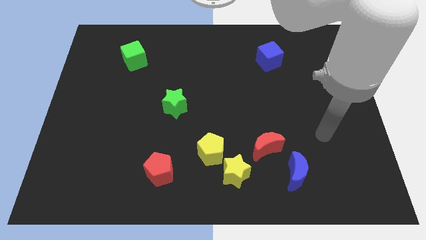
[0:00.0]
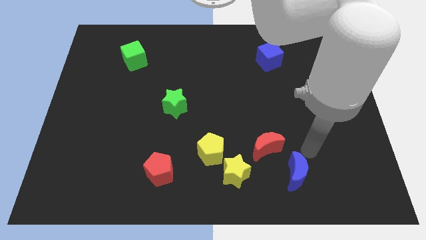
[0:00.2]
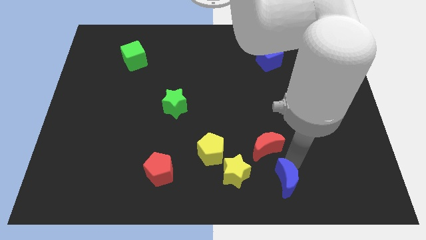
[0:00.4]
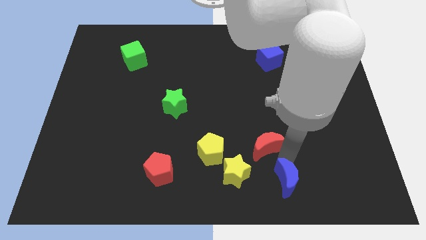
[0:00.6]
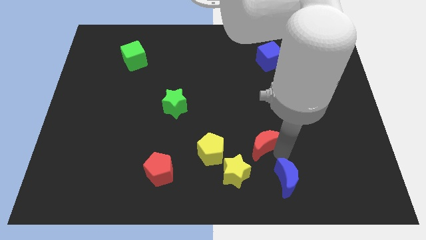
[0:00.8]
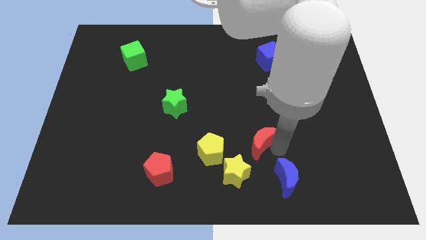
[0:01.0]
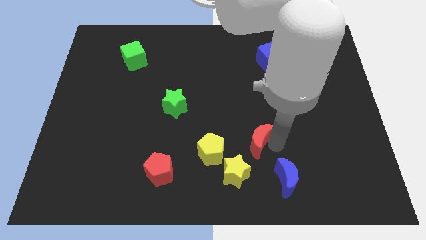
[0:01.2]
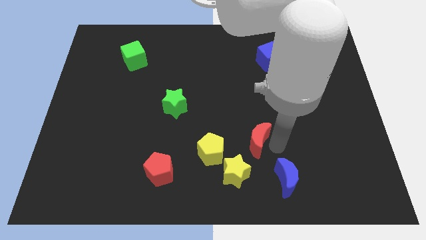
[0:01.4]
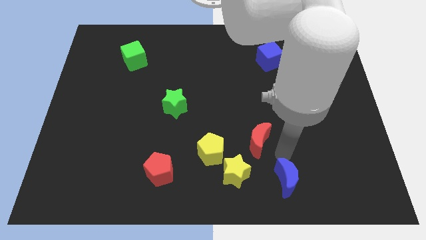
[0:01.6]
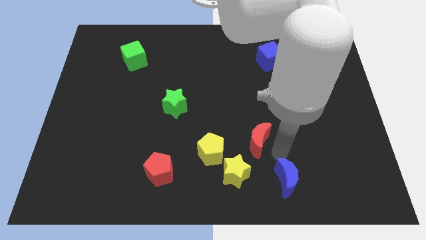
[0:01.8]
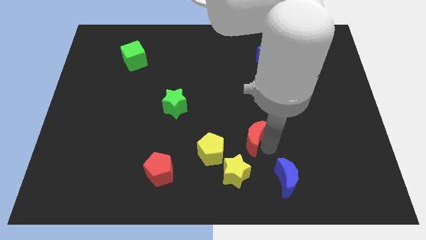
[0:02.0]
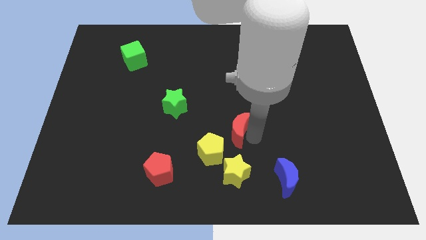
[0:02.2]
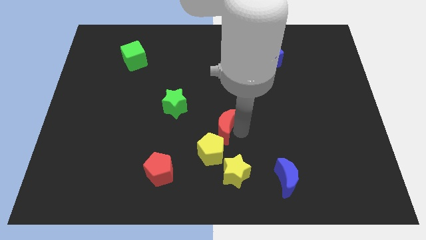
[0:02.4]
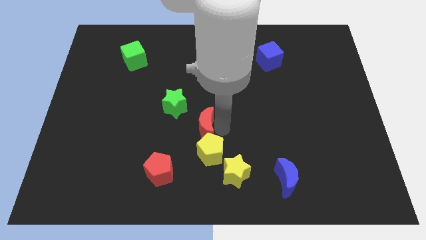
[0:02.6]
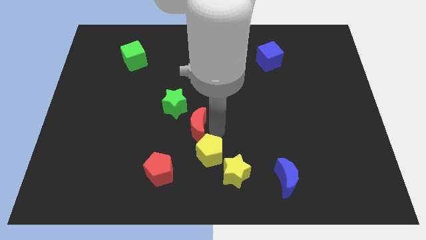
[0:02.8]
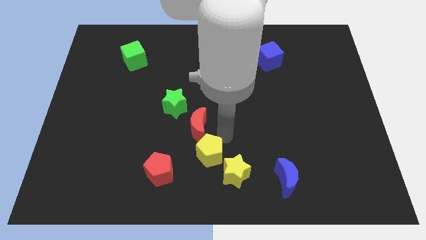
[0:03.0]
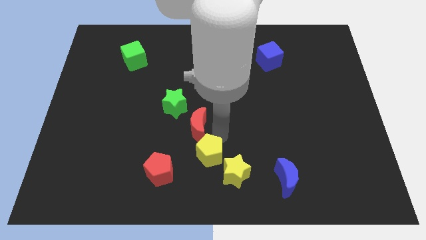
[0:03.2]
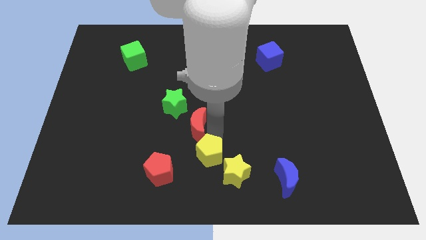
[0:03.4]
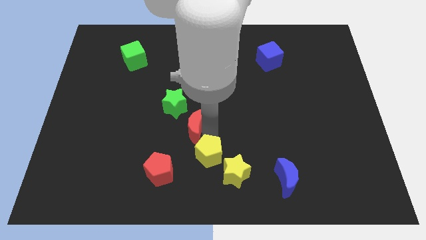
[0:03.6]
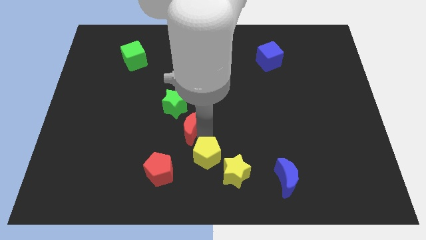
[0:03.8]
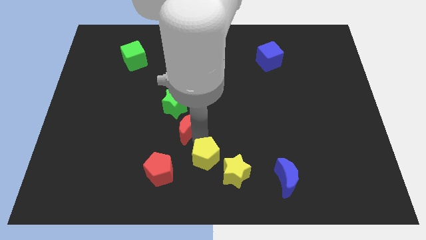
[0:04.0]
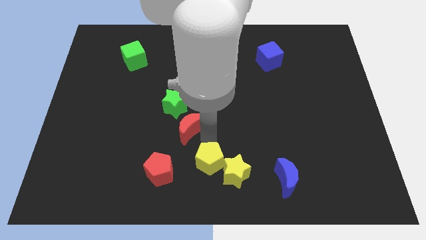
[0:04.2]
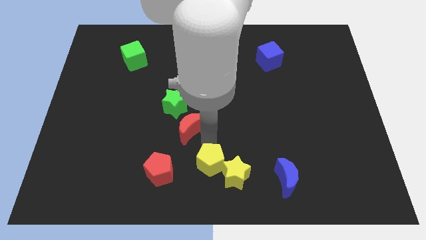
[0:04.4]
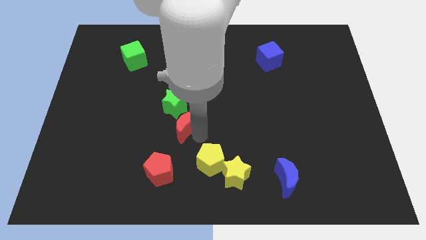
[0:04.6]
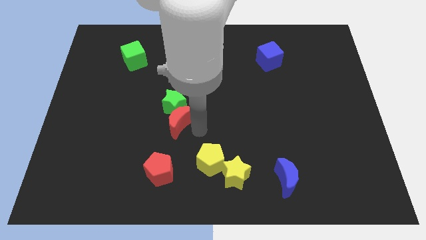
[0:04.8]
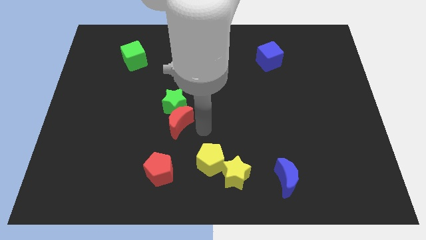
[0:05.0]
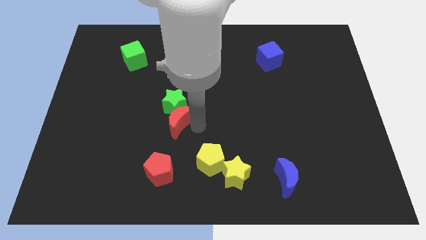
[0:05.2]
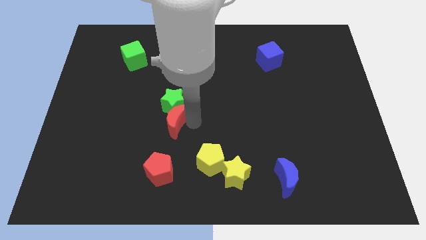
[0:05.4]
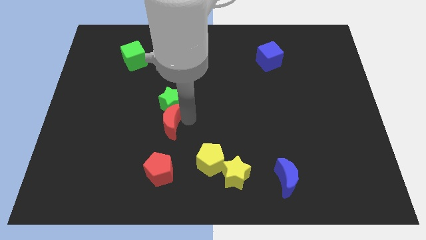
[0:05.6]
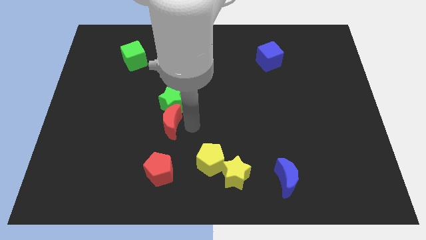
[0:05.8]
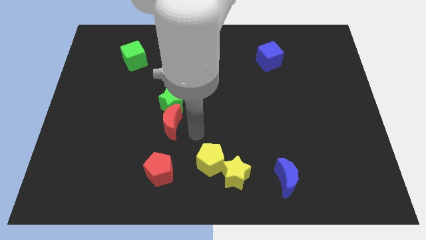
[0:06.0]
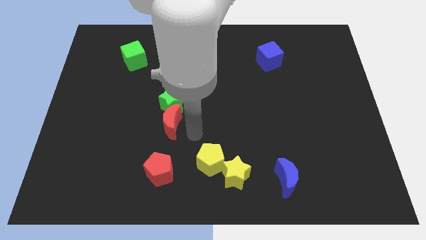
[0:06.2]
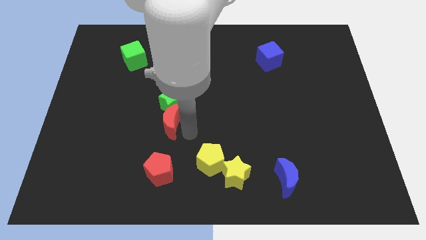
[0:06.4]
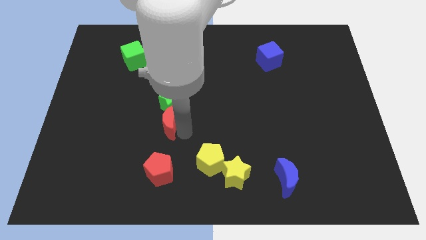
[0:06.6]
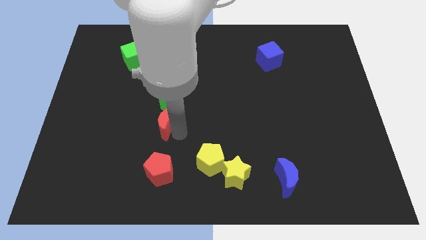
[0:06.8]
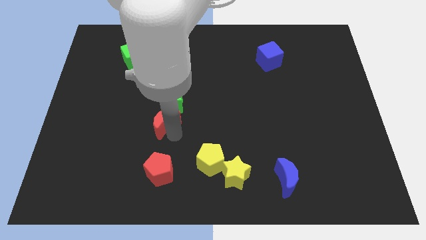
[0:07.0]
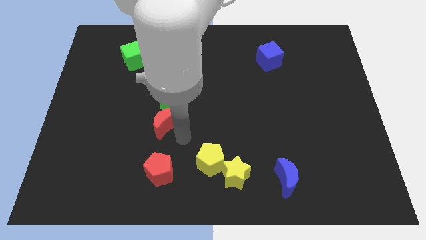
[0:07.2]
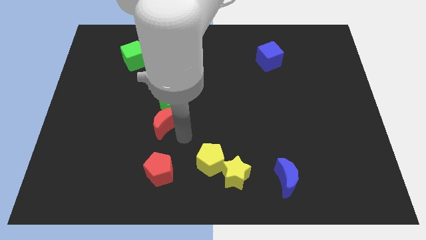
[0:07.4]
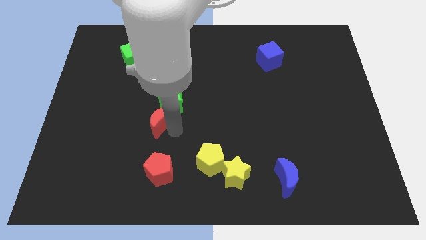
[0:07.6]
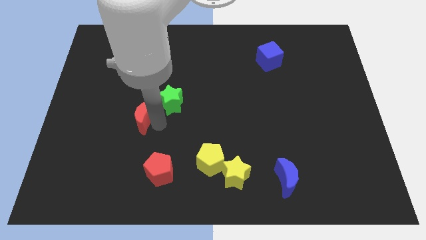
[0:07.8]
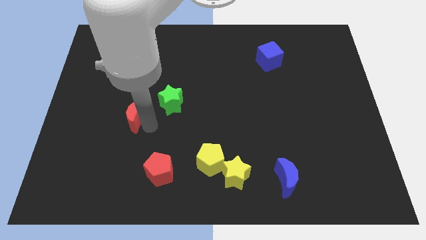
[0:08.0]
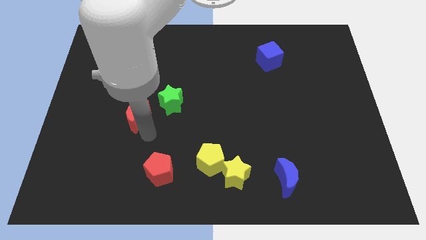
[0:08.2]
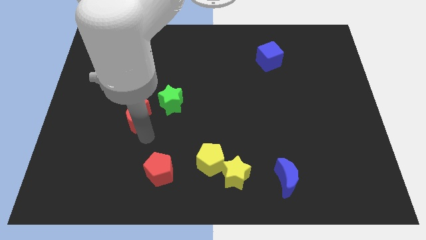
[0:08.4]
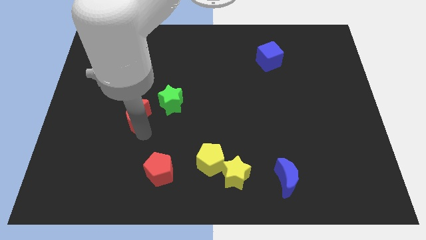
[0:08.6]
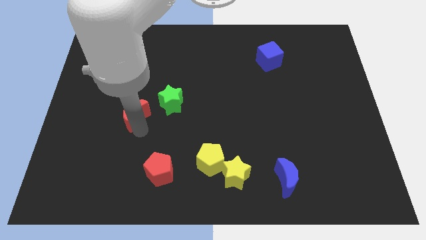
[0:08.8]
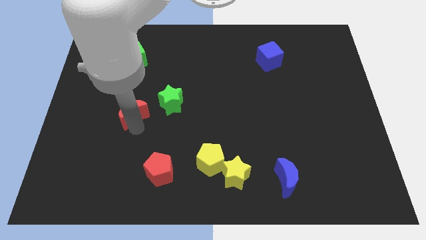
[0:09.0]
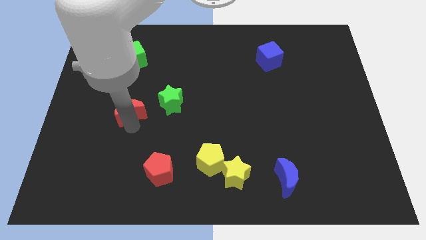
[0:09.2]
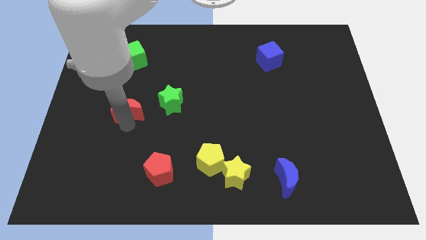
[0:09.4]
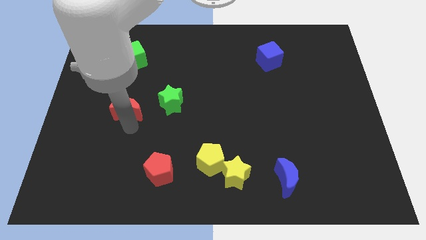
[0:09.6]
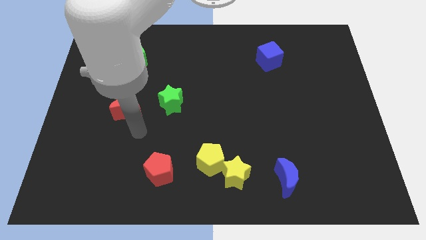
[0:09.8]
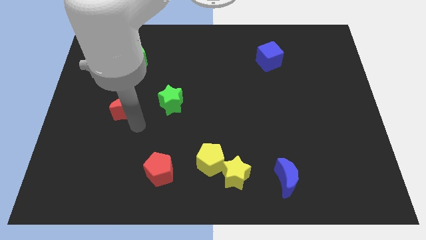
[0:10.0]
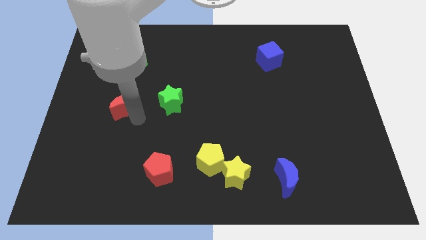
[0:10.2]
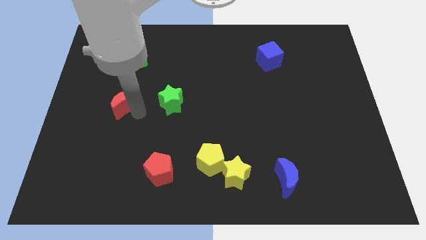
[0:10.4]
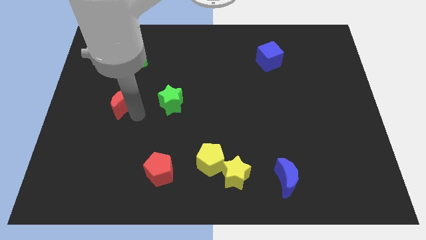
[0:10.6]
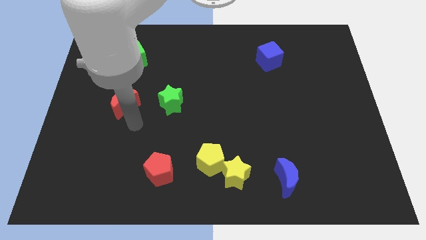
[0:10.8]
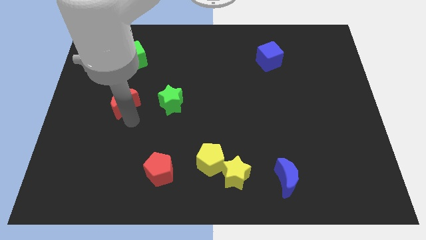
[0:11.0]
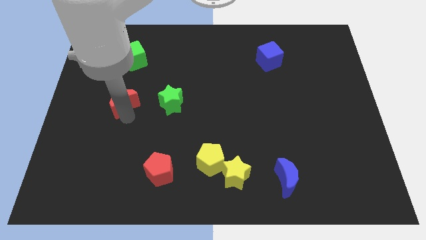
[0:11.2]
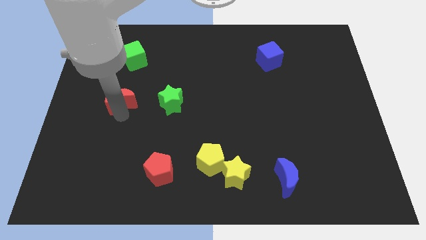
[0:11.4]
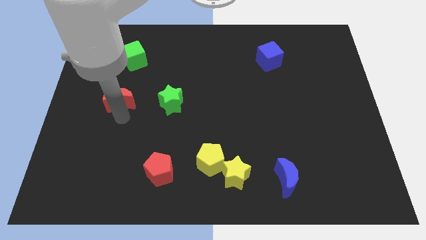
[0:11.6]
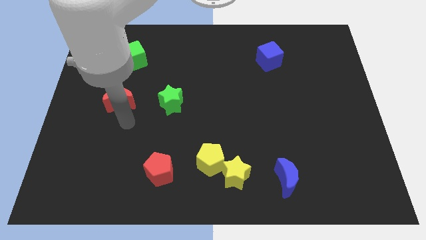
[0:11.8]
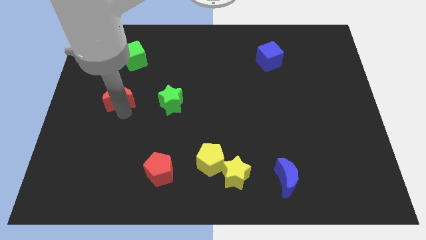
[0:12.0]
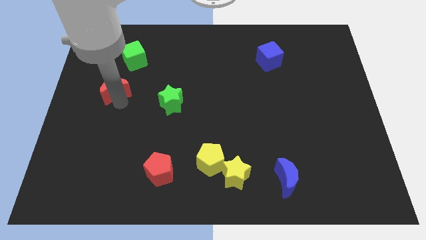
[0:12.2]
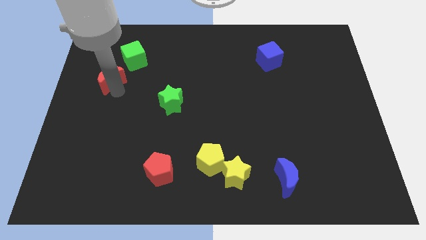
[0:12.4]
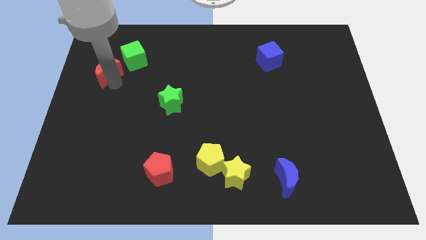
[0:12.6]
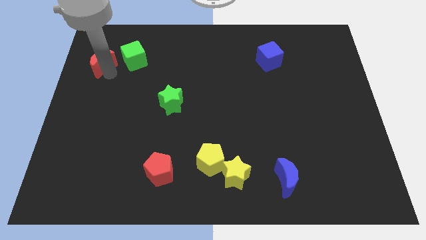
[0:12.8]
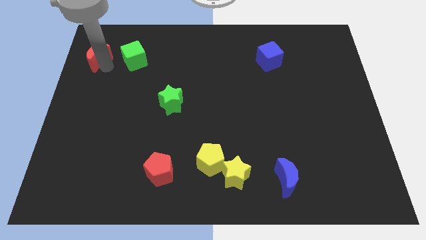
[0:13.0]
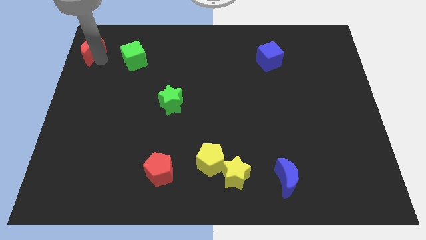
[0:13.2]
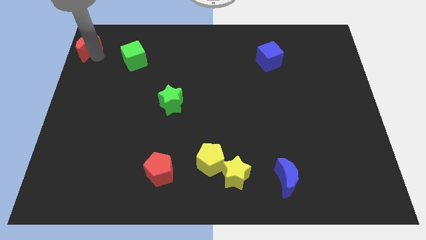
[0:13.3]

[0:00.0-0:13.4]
slide the red moon to the top left corner
